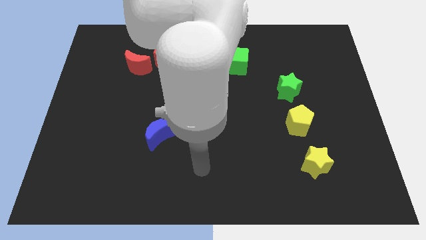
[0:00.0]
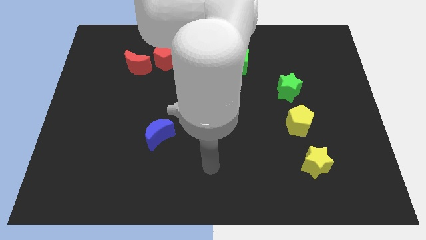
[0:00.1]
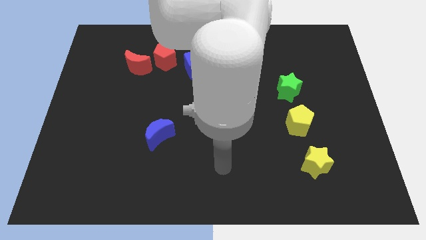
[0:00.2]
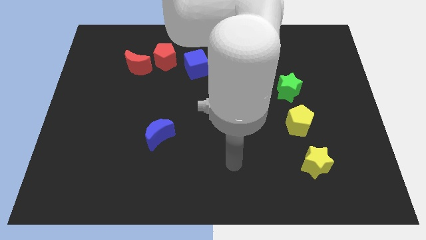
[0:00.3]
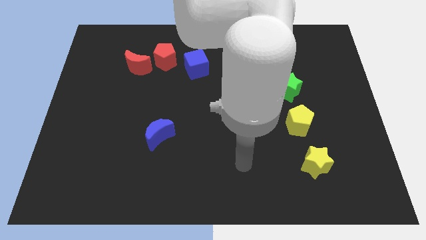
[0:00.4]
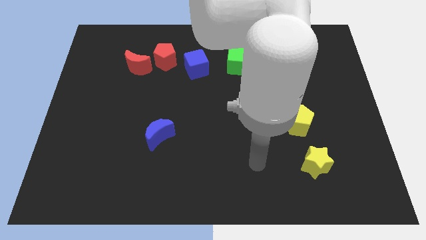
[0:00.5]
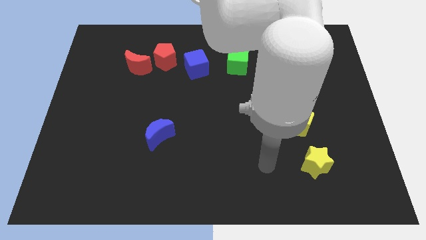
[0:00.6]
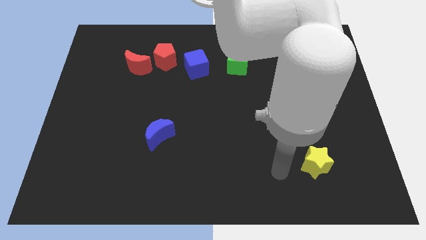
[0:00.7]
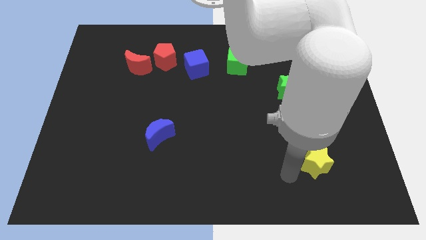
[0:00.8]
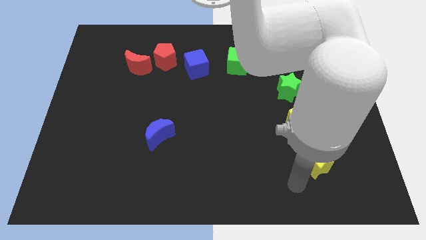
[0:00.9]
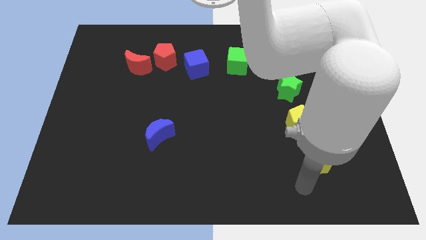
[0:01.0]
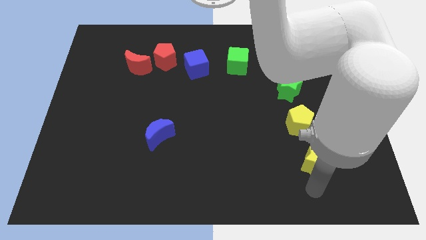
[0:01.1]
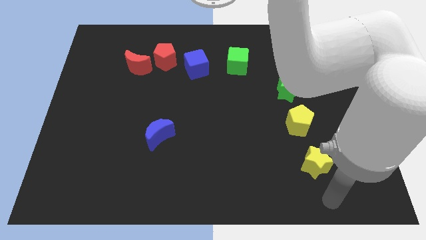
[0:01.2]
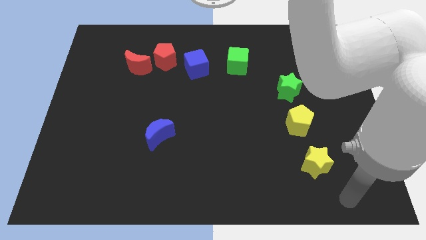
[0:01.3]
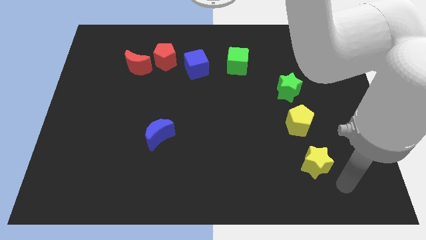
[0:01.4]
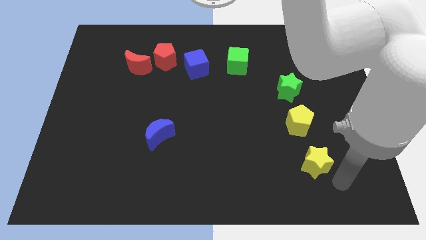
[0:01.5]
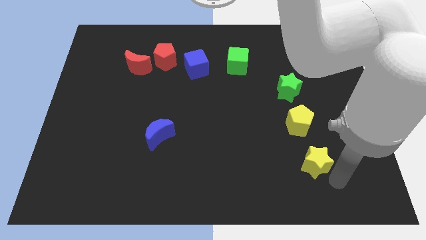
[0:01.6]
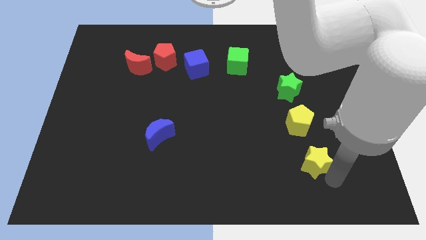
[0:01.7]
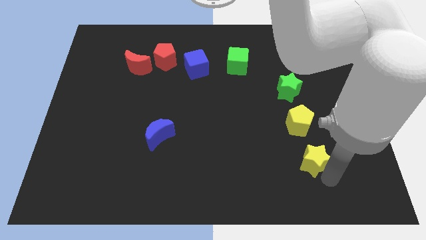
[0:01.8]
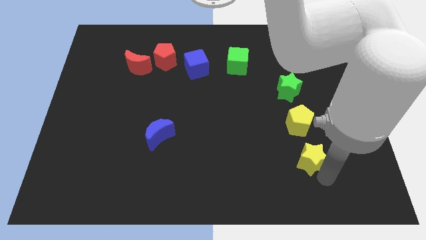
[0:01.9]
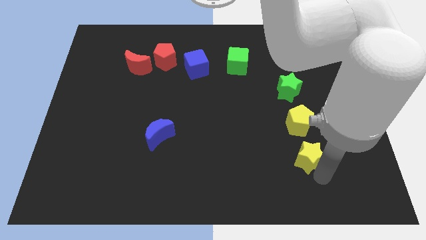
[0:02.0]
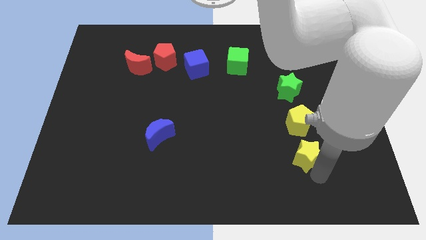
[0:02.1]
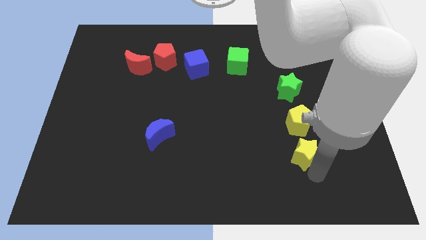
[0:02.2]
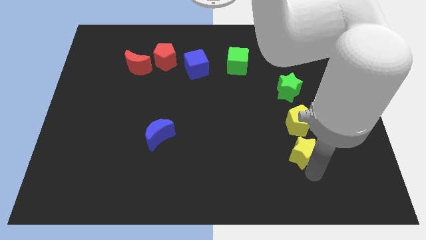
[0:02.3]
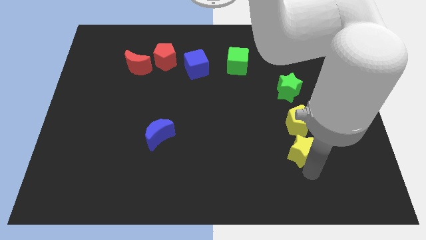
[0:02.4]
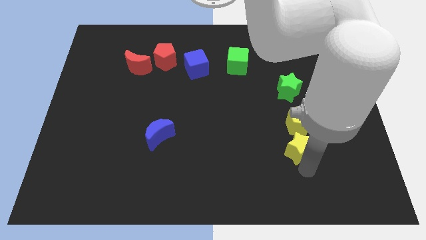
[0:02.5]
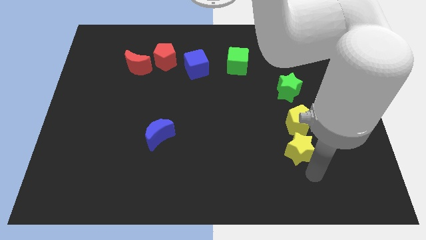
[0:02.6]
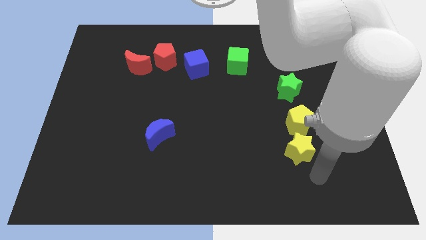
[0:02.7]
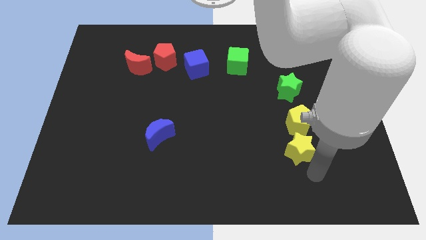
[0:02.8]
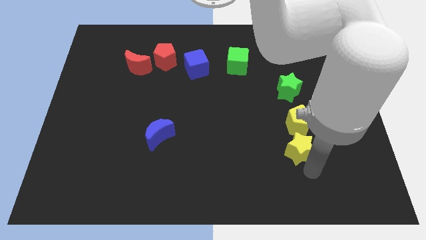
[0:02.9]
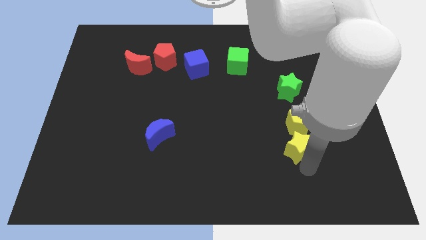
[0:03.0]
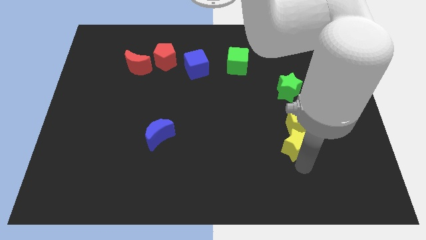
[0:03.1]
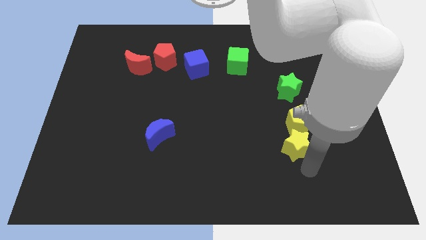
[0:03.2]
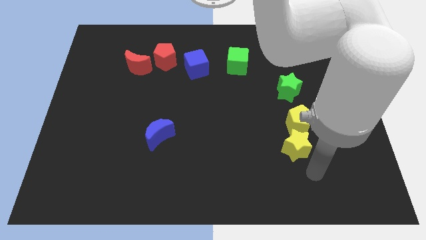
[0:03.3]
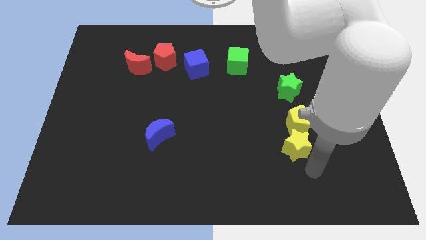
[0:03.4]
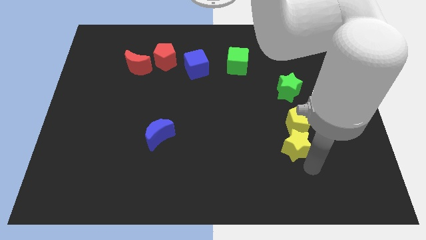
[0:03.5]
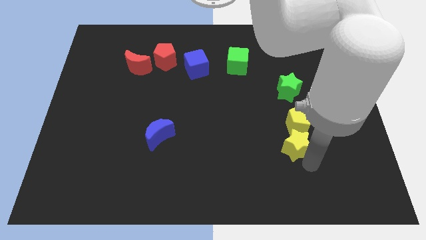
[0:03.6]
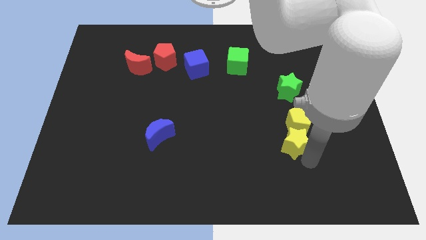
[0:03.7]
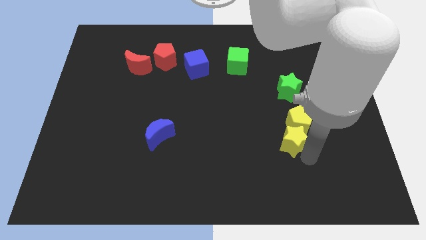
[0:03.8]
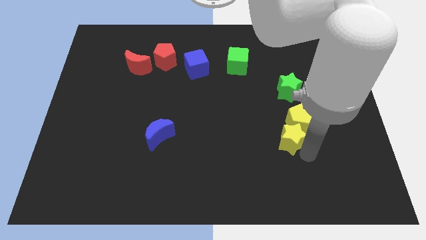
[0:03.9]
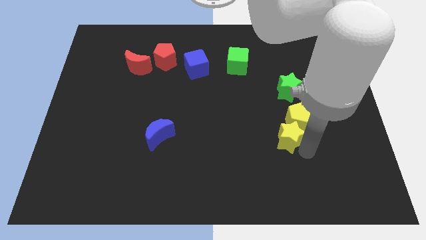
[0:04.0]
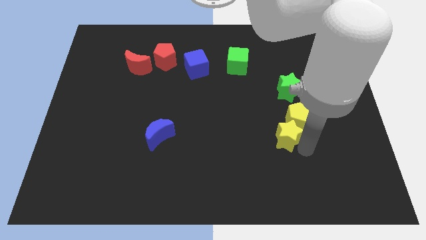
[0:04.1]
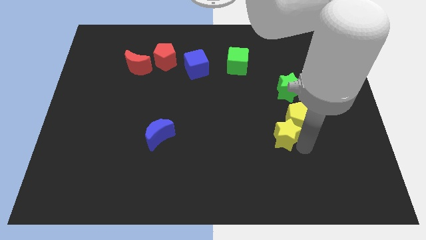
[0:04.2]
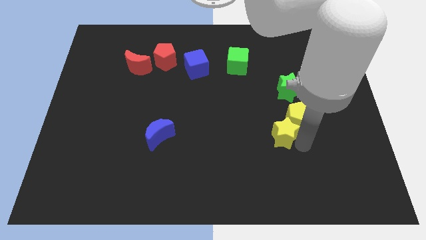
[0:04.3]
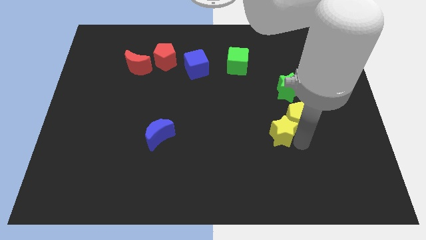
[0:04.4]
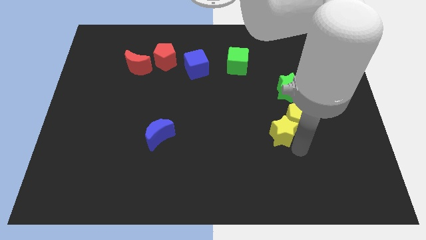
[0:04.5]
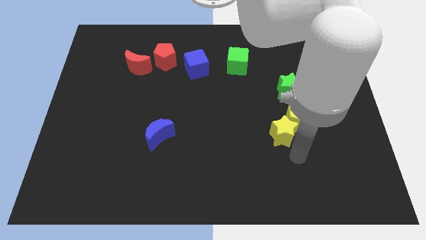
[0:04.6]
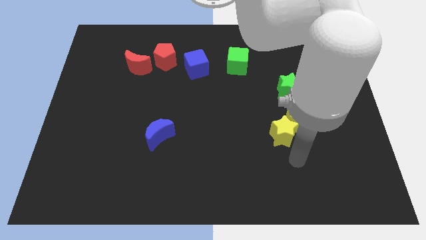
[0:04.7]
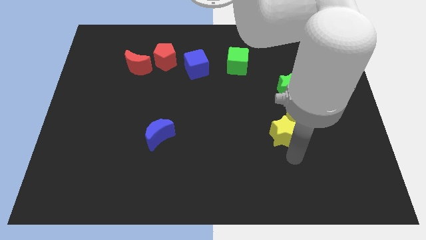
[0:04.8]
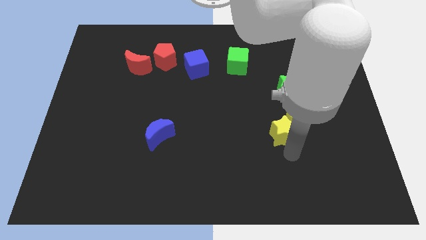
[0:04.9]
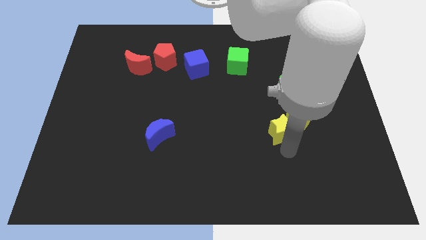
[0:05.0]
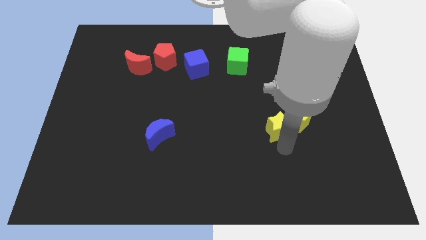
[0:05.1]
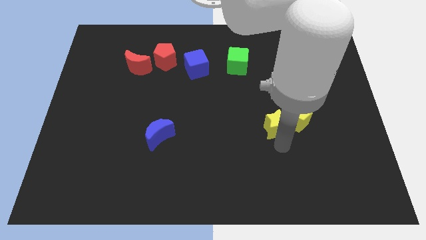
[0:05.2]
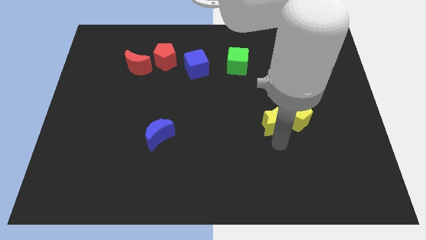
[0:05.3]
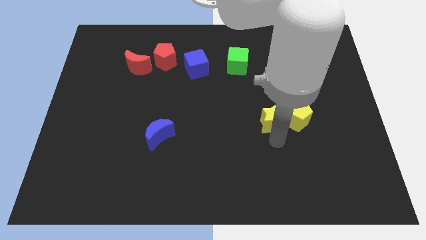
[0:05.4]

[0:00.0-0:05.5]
push the yellow star to the bottom left side of the green star

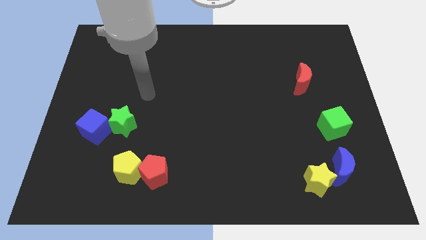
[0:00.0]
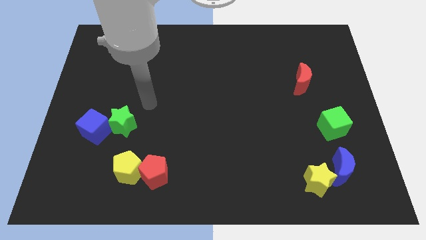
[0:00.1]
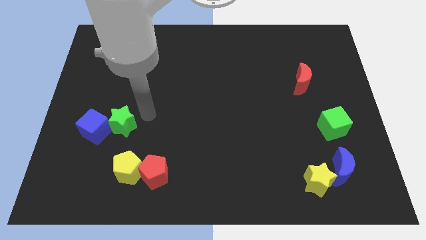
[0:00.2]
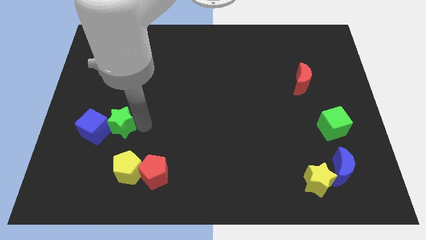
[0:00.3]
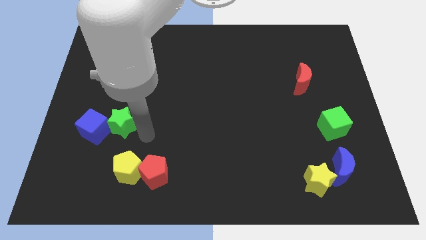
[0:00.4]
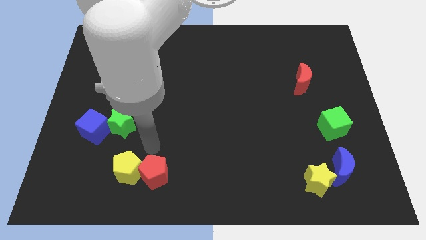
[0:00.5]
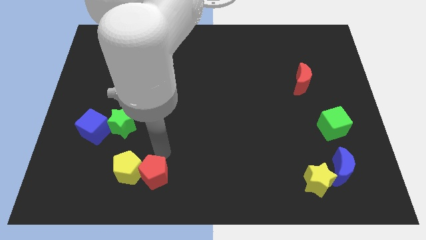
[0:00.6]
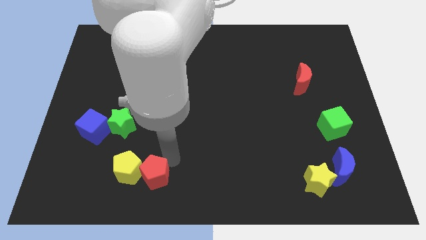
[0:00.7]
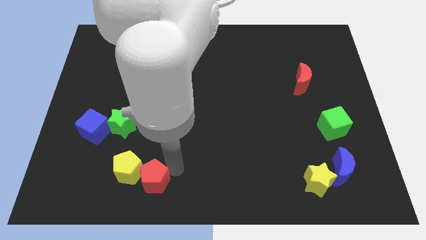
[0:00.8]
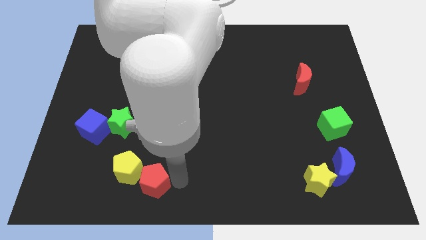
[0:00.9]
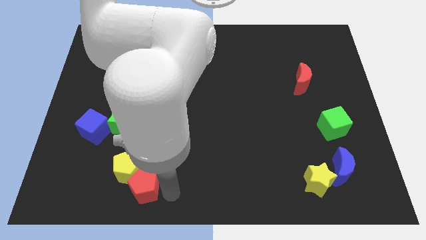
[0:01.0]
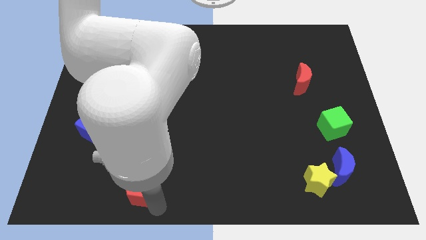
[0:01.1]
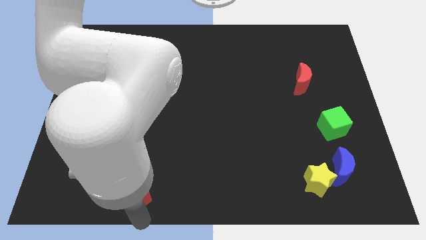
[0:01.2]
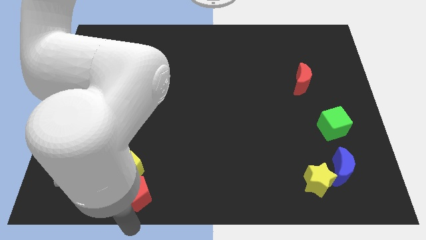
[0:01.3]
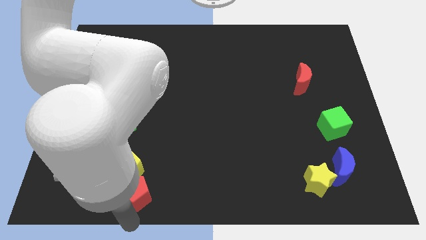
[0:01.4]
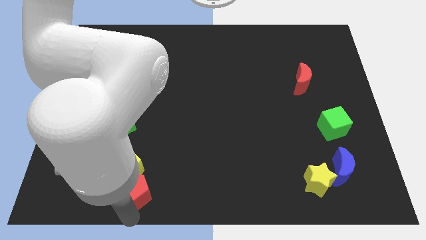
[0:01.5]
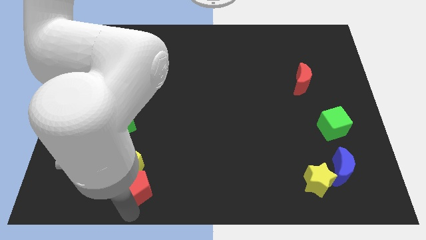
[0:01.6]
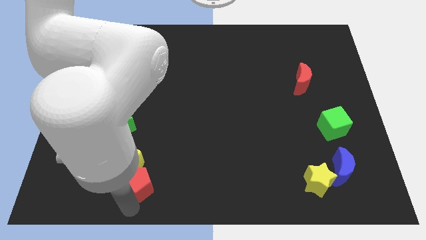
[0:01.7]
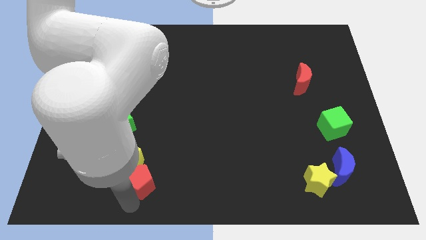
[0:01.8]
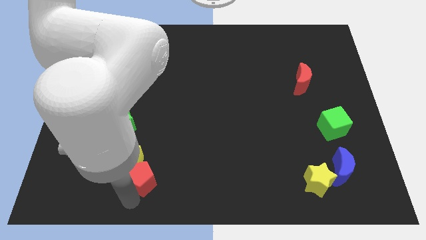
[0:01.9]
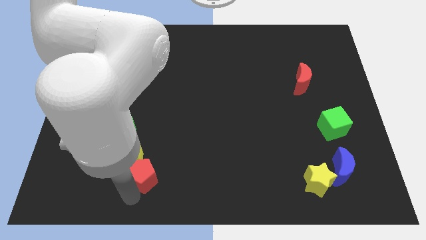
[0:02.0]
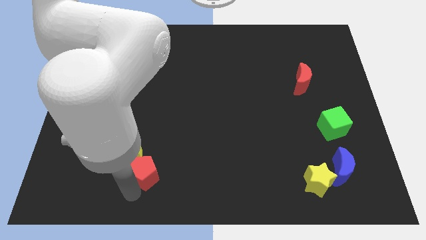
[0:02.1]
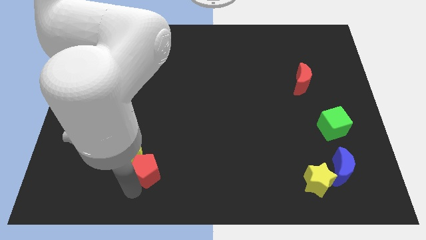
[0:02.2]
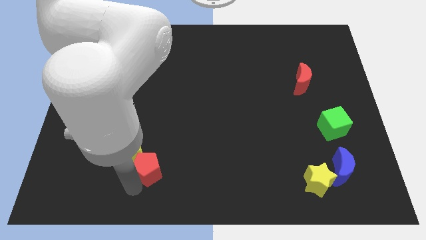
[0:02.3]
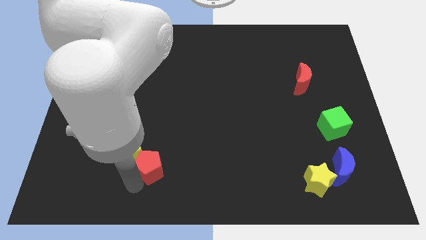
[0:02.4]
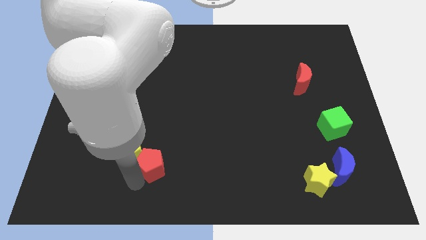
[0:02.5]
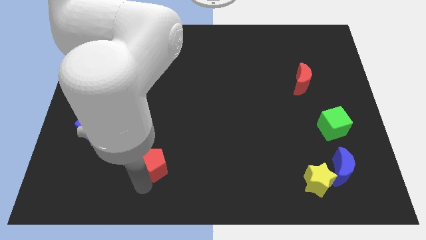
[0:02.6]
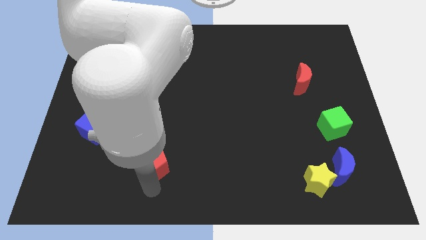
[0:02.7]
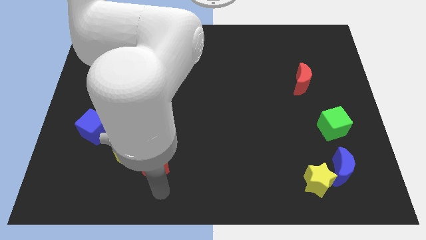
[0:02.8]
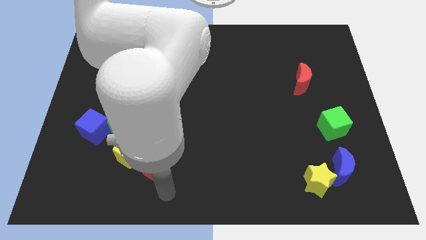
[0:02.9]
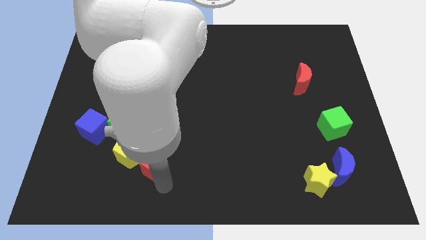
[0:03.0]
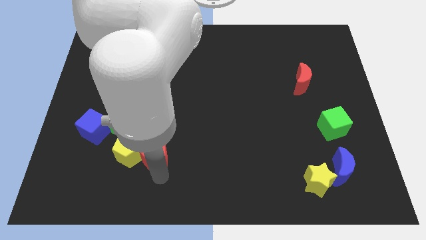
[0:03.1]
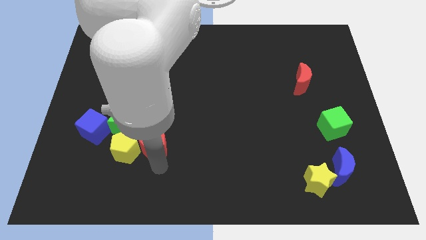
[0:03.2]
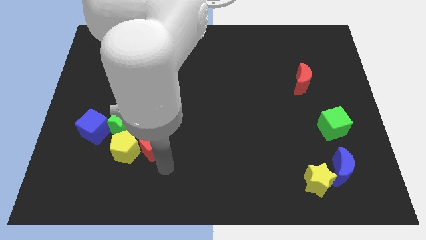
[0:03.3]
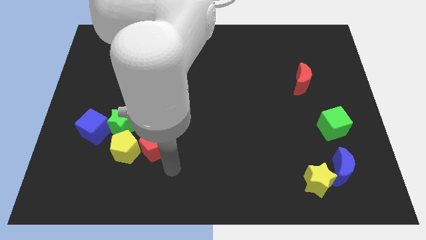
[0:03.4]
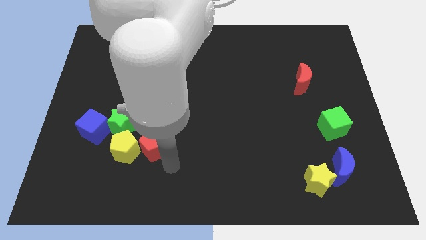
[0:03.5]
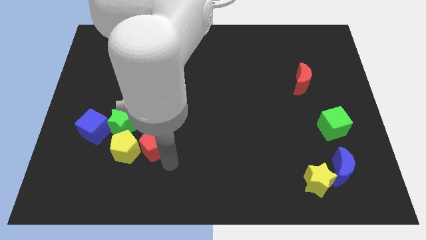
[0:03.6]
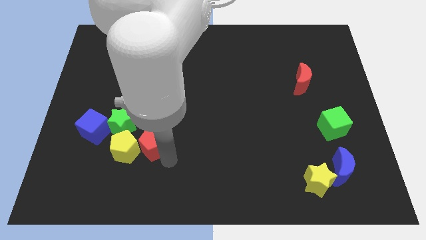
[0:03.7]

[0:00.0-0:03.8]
slide the red pentagon to the right side of the blue cube
